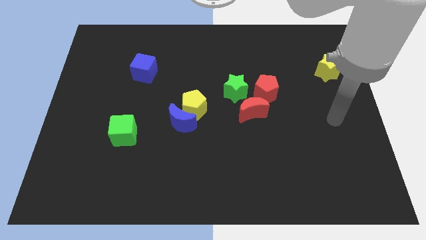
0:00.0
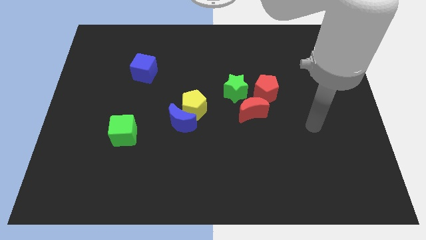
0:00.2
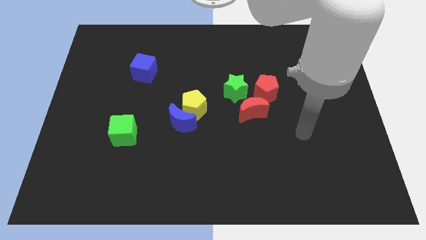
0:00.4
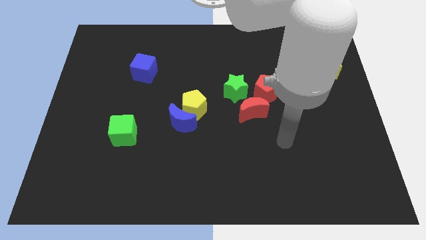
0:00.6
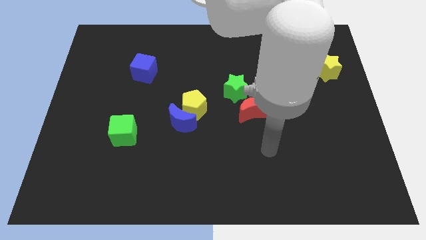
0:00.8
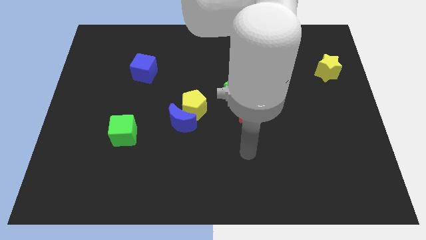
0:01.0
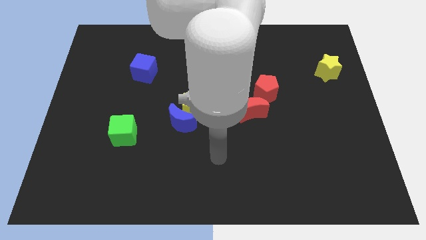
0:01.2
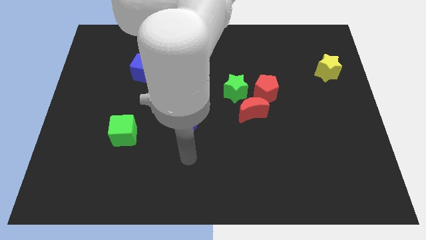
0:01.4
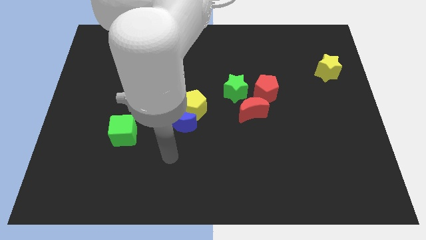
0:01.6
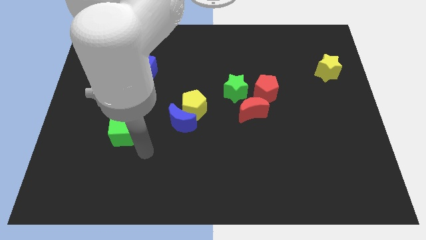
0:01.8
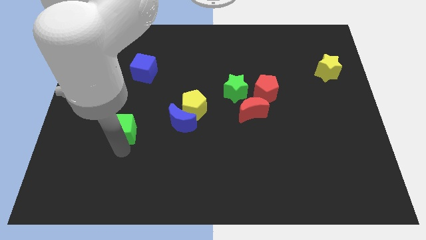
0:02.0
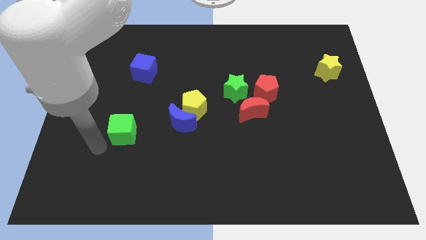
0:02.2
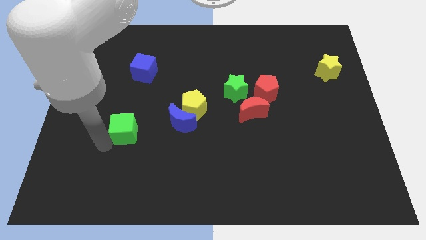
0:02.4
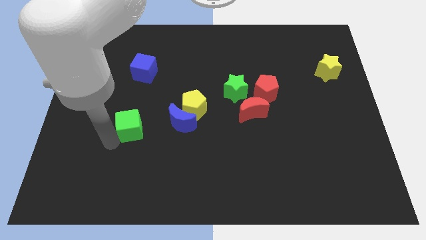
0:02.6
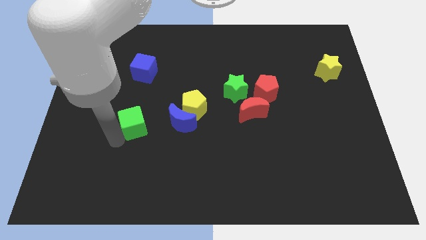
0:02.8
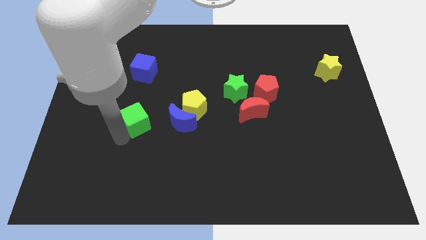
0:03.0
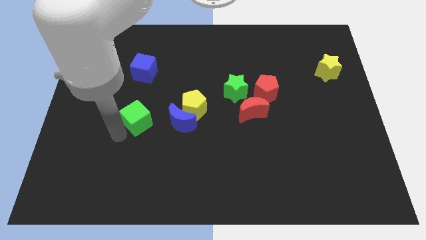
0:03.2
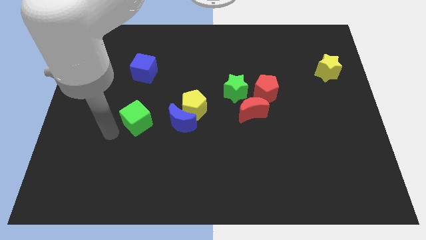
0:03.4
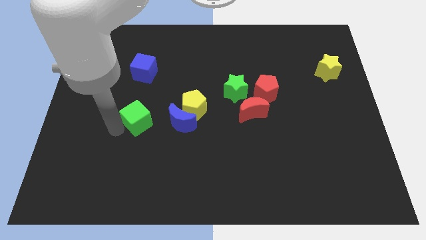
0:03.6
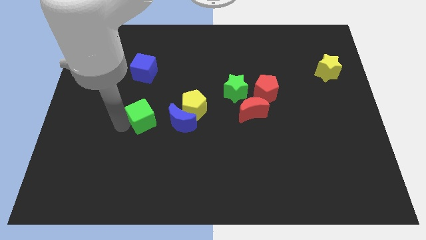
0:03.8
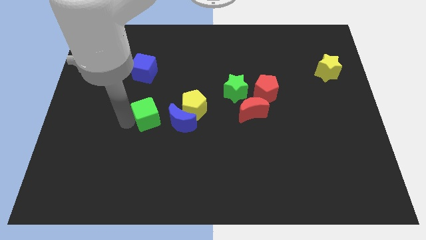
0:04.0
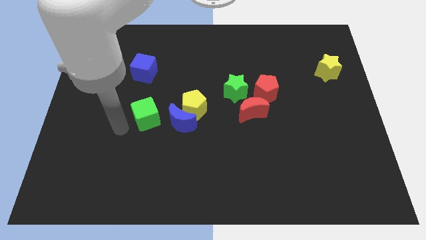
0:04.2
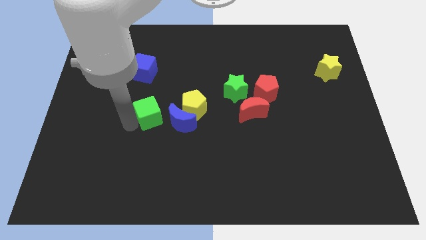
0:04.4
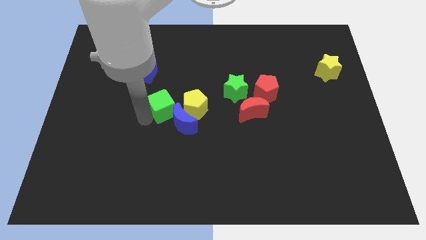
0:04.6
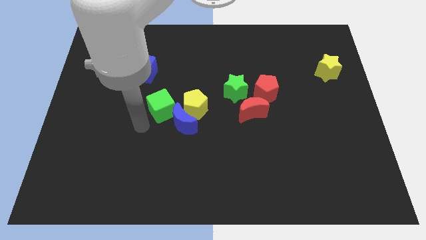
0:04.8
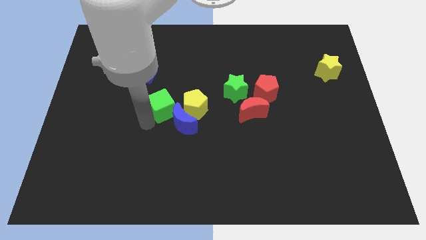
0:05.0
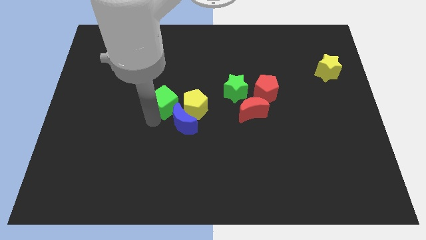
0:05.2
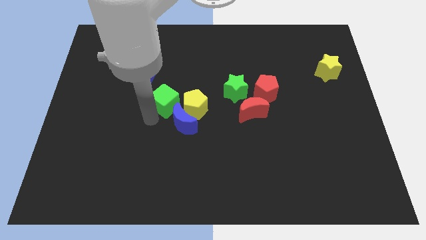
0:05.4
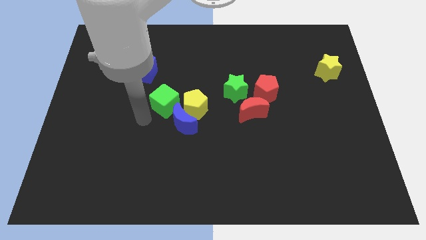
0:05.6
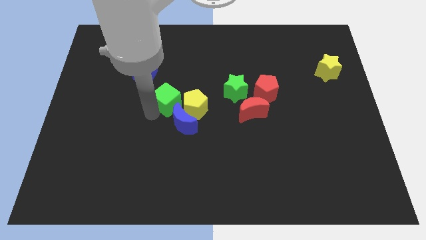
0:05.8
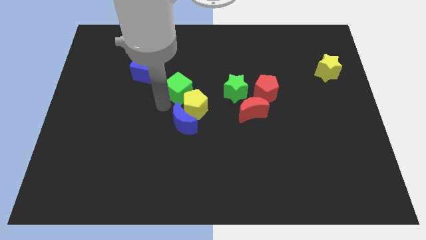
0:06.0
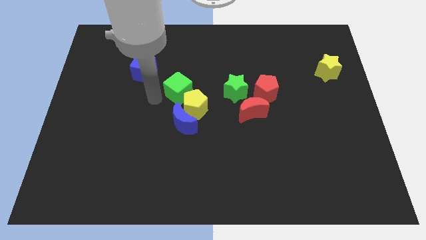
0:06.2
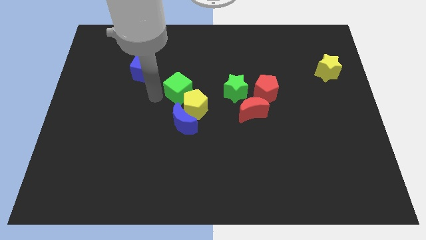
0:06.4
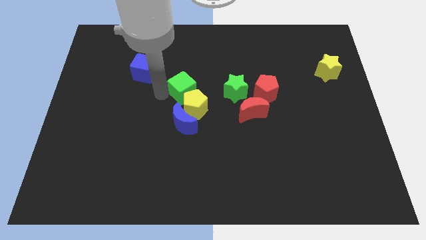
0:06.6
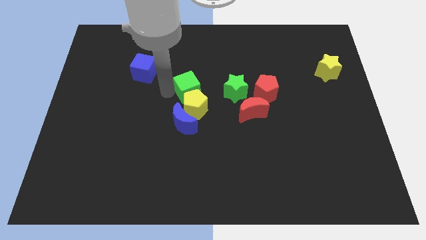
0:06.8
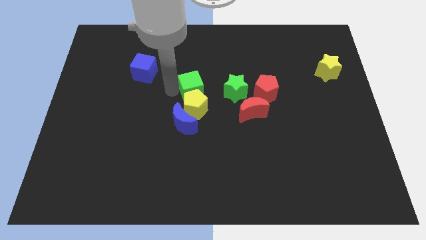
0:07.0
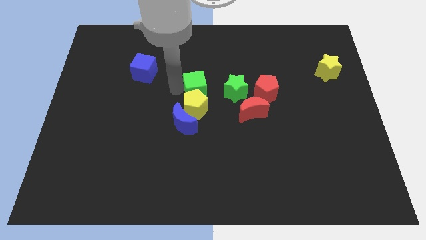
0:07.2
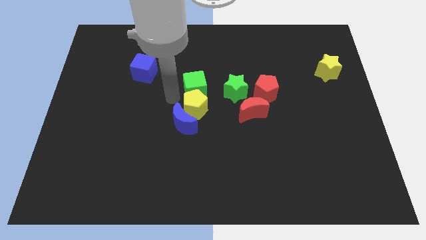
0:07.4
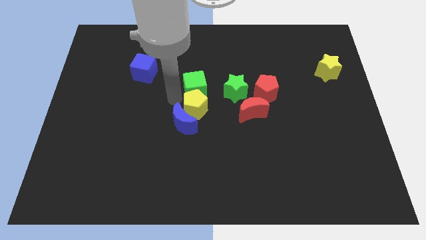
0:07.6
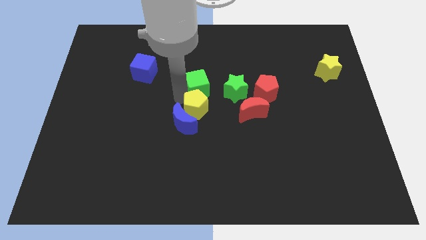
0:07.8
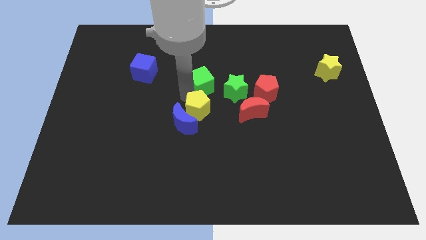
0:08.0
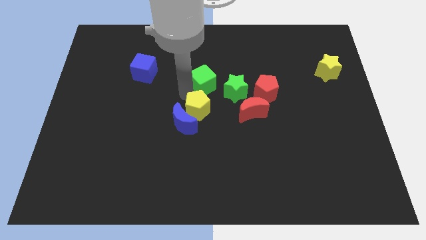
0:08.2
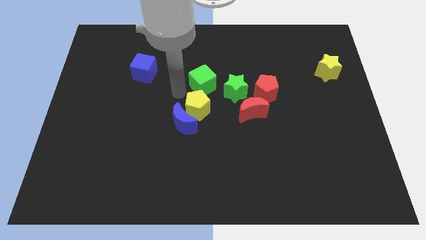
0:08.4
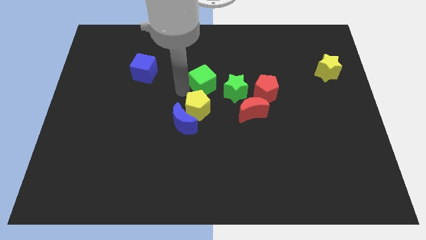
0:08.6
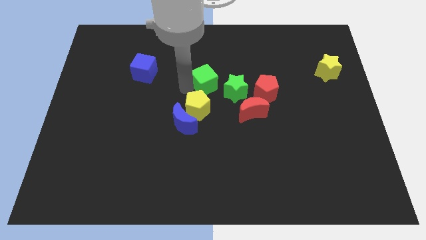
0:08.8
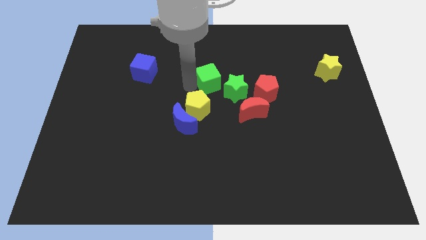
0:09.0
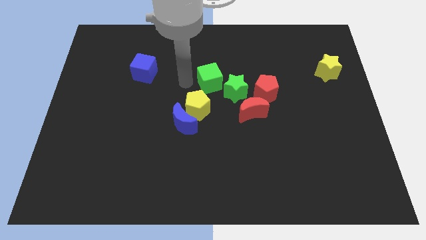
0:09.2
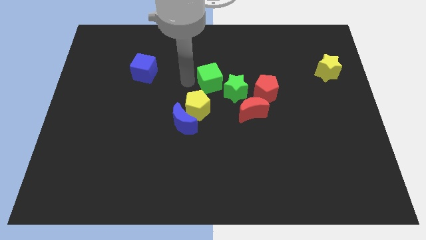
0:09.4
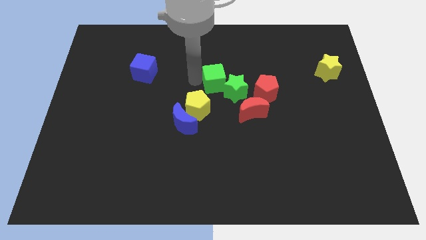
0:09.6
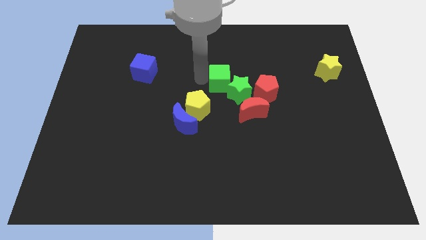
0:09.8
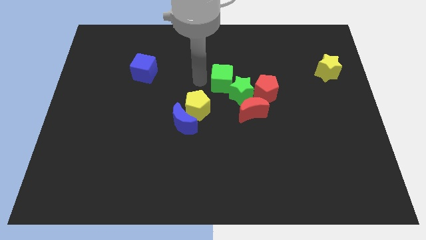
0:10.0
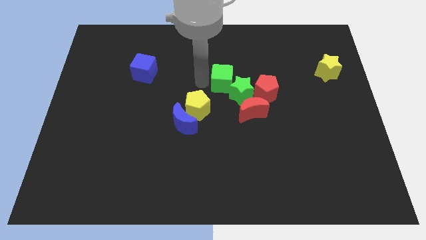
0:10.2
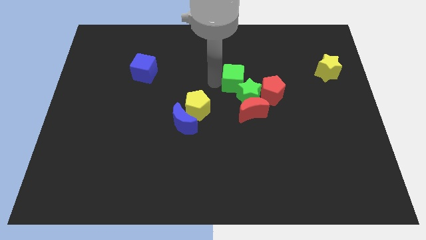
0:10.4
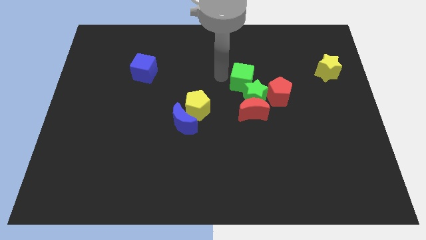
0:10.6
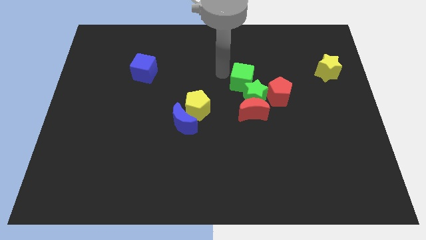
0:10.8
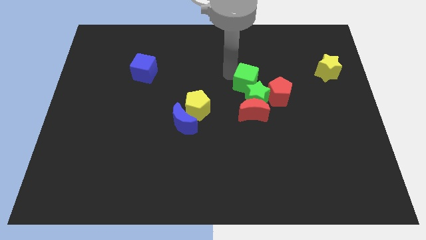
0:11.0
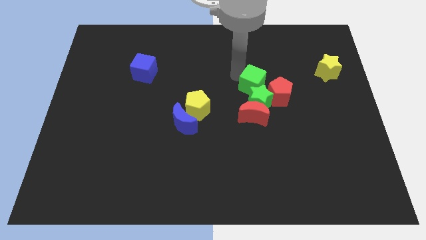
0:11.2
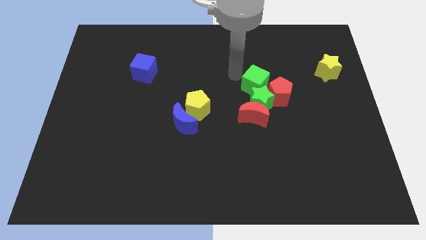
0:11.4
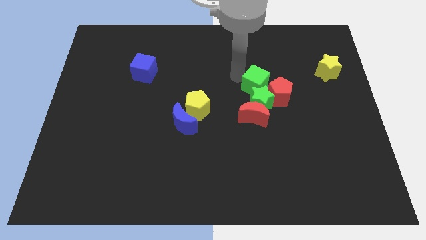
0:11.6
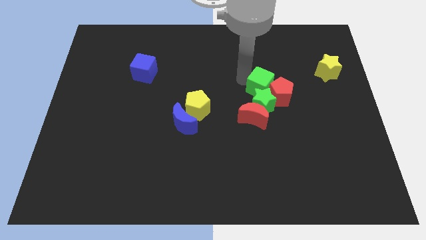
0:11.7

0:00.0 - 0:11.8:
push the green cube close to the red pentagon

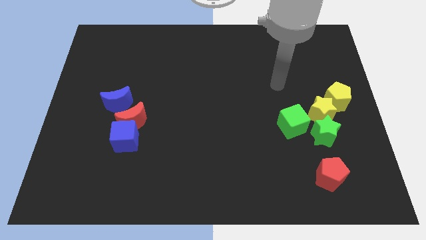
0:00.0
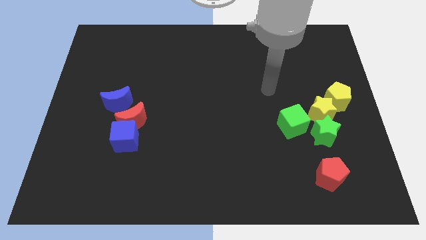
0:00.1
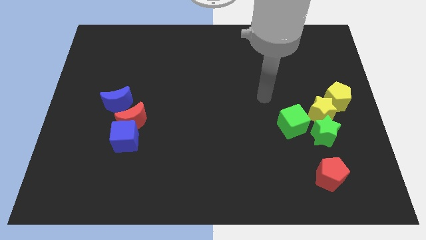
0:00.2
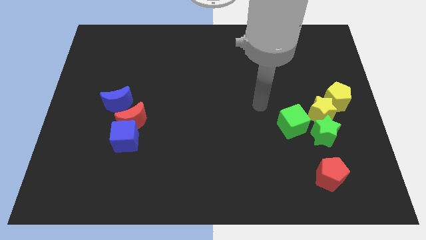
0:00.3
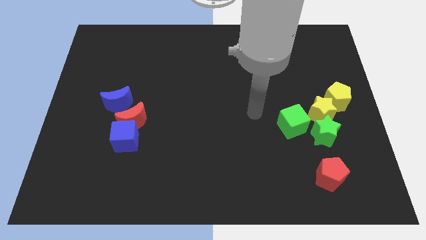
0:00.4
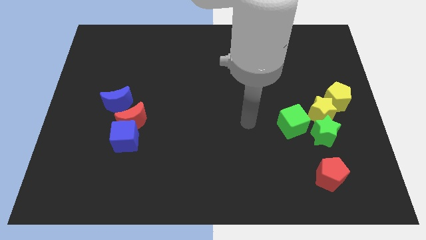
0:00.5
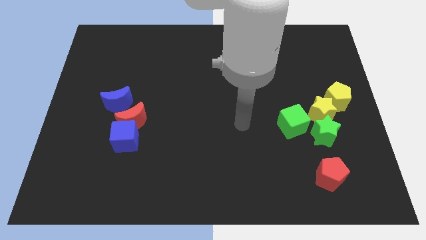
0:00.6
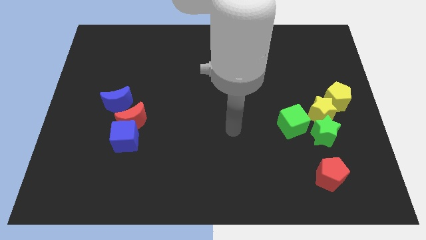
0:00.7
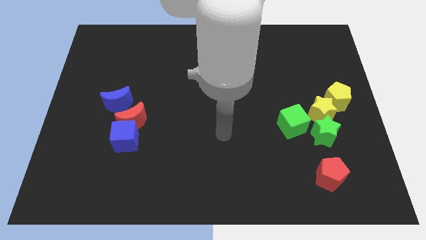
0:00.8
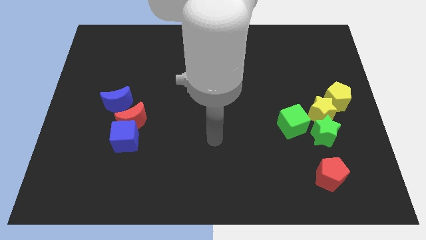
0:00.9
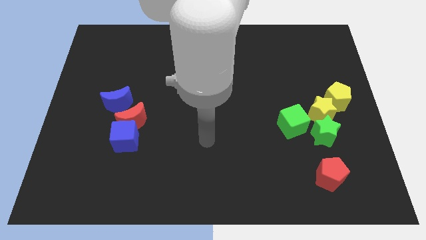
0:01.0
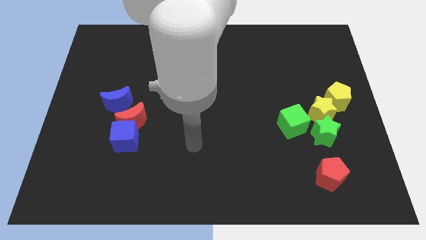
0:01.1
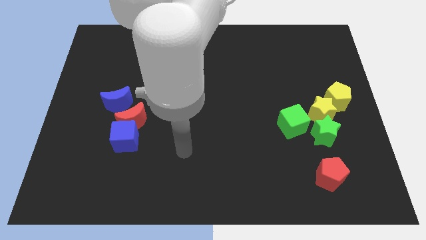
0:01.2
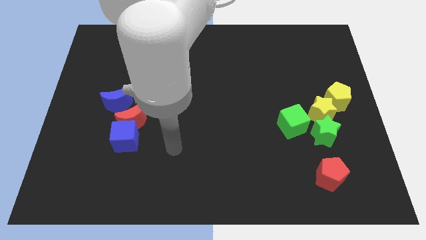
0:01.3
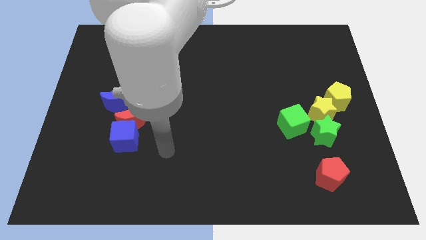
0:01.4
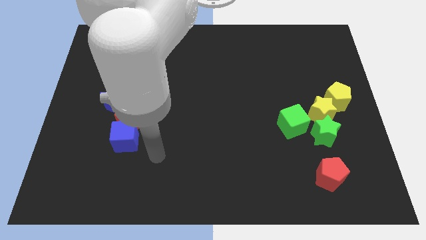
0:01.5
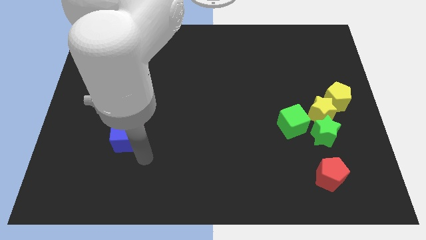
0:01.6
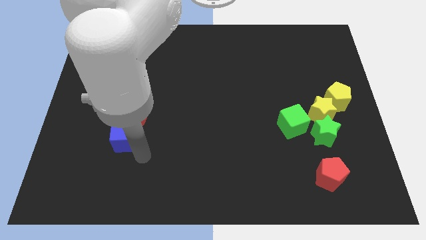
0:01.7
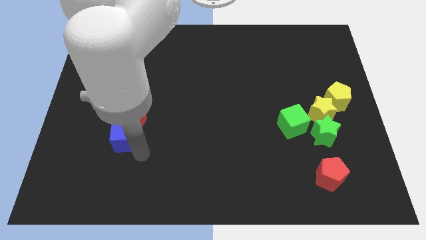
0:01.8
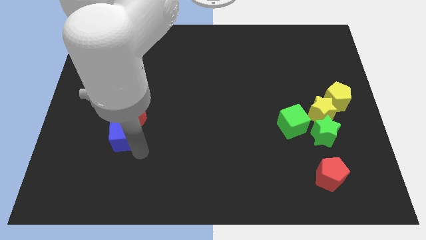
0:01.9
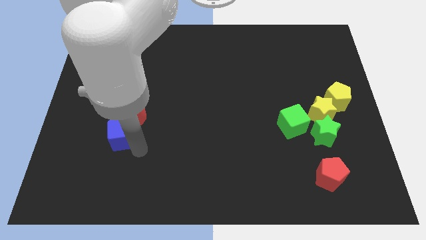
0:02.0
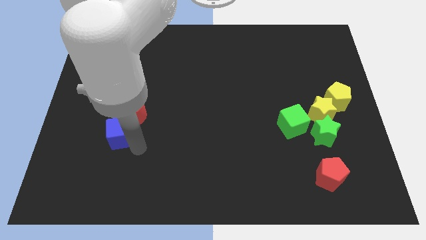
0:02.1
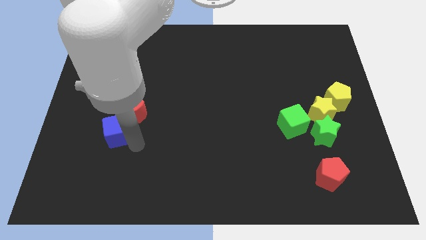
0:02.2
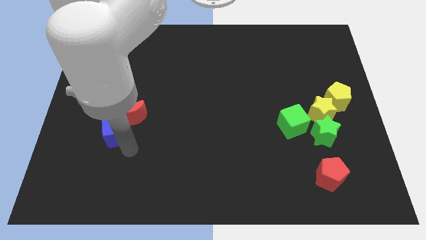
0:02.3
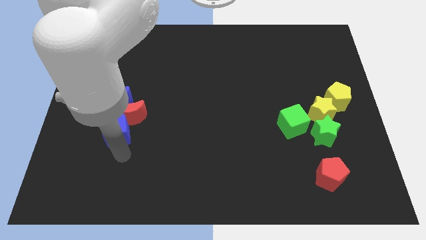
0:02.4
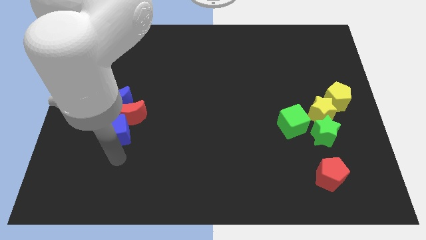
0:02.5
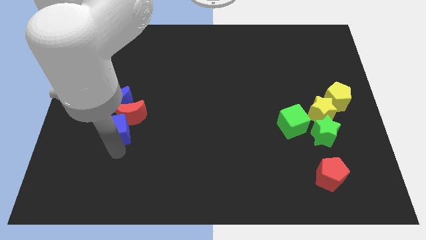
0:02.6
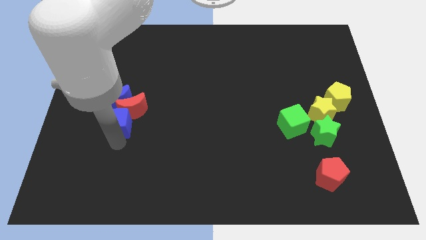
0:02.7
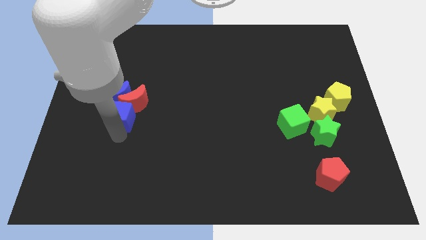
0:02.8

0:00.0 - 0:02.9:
push the blue cube to the blue moon
